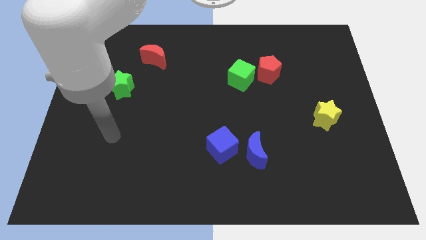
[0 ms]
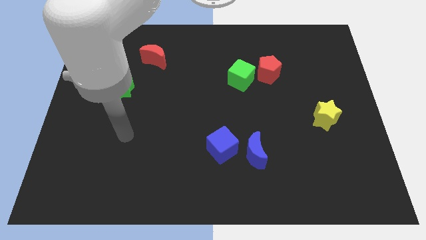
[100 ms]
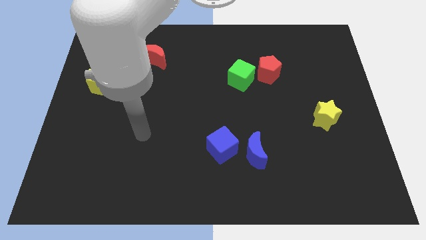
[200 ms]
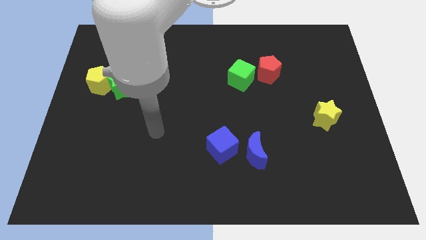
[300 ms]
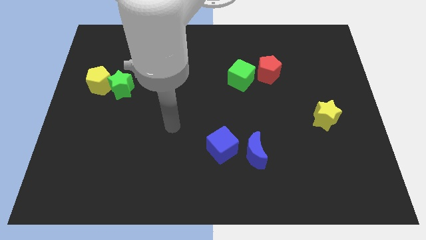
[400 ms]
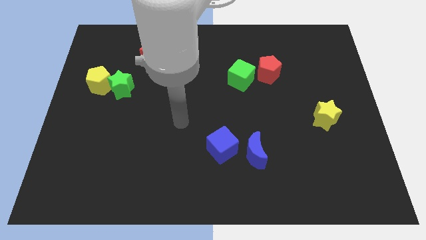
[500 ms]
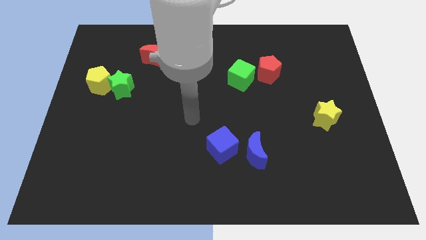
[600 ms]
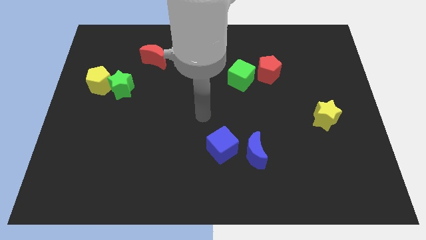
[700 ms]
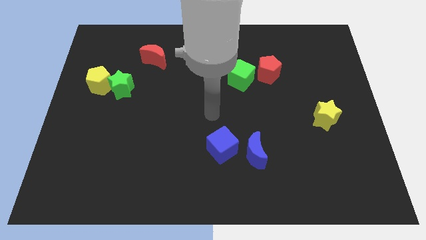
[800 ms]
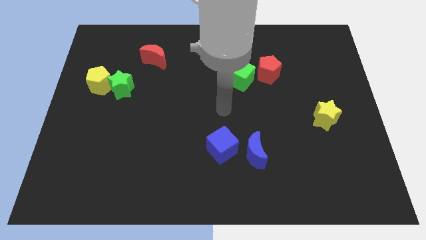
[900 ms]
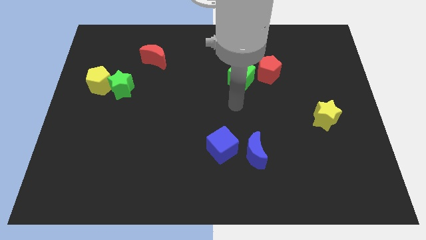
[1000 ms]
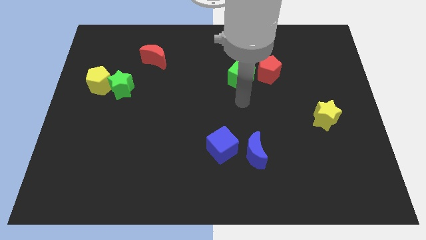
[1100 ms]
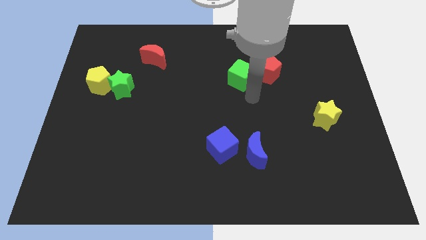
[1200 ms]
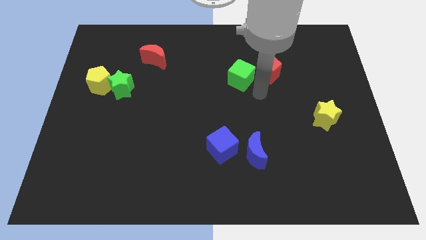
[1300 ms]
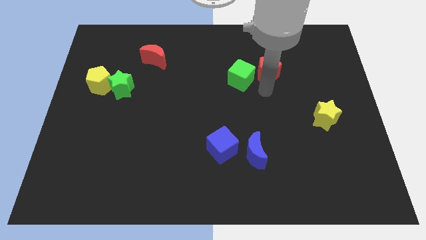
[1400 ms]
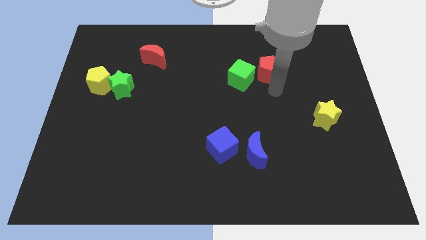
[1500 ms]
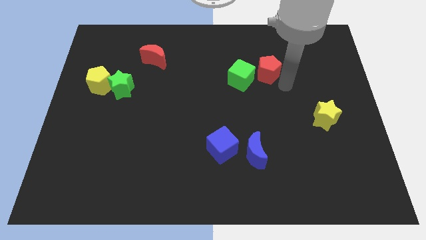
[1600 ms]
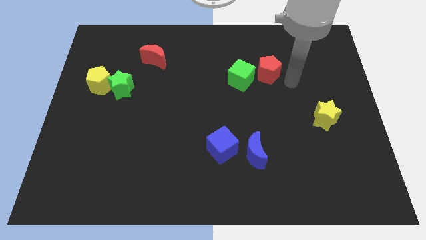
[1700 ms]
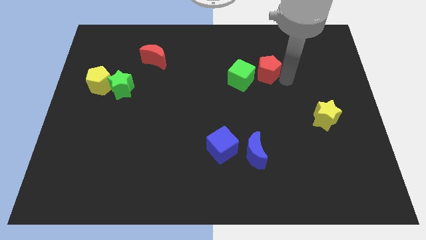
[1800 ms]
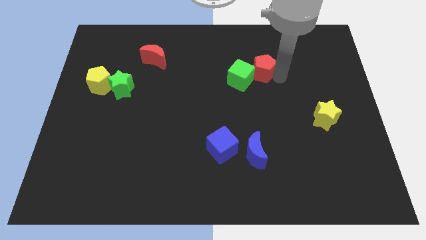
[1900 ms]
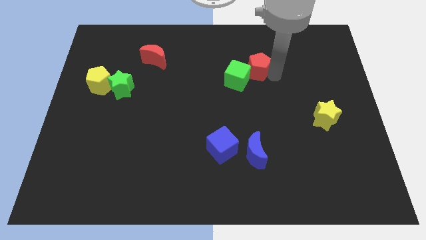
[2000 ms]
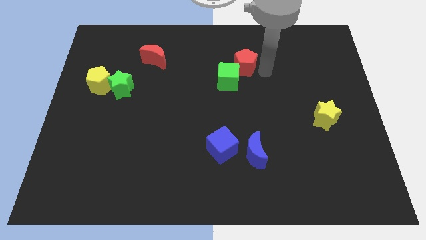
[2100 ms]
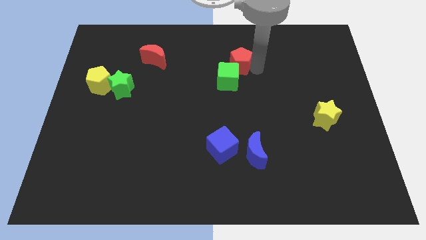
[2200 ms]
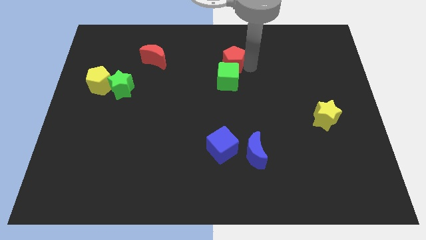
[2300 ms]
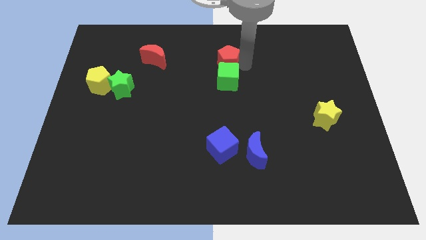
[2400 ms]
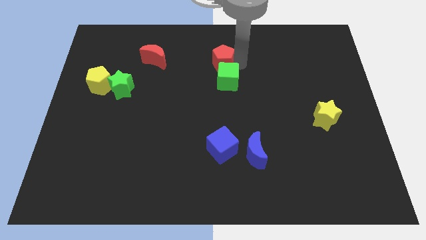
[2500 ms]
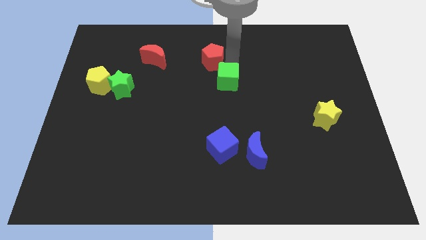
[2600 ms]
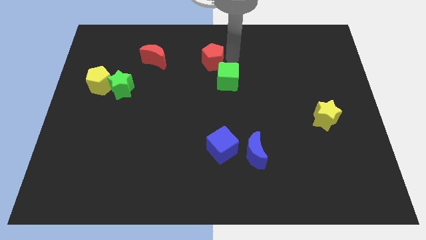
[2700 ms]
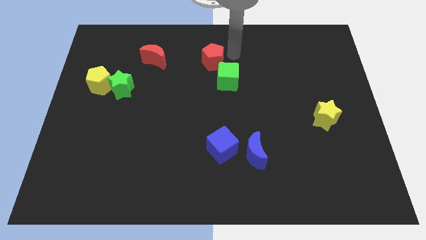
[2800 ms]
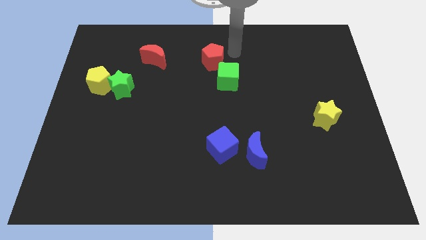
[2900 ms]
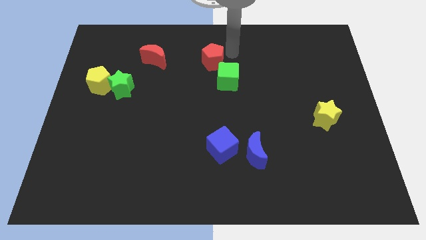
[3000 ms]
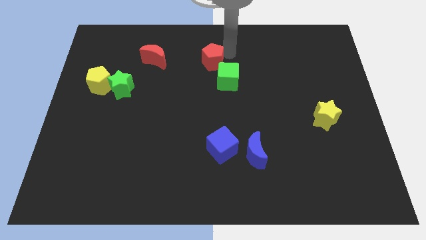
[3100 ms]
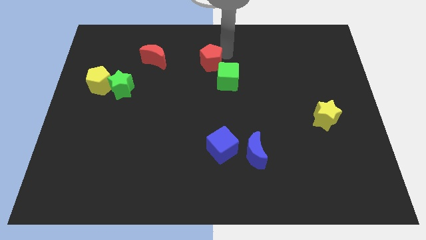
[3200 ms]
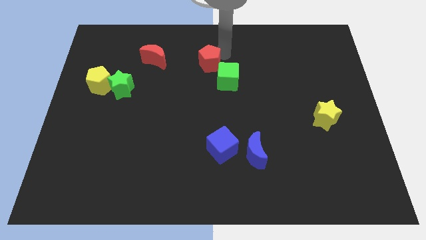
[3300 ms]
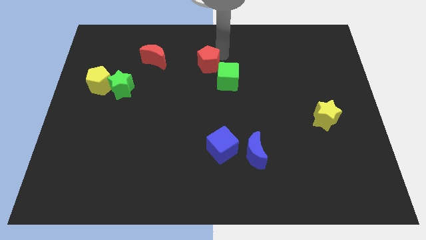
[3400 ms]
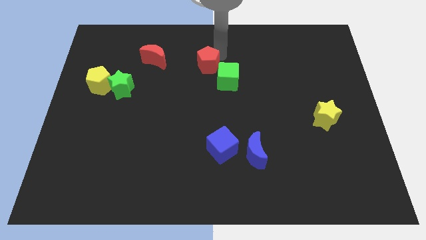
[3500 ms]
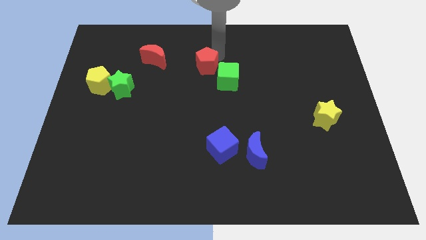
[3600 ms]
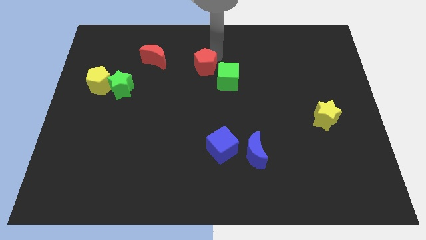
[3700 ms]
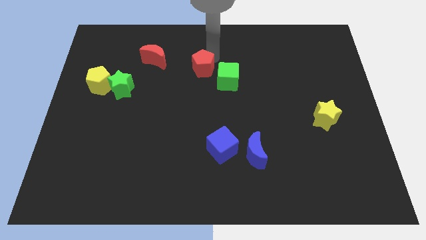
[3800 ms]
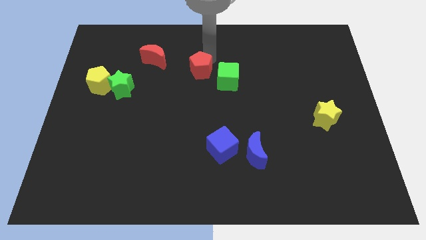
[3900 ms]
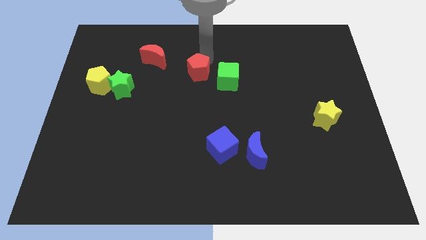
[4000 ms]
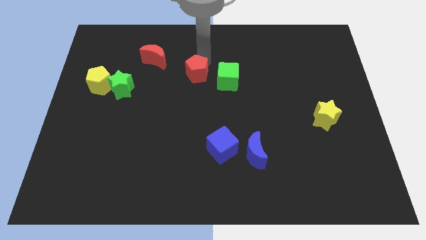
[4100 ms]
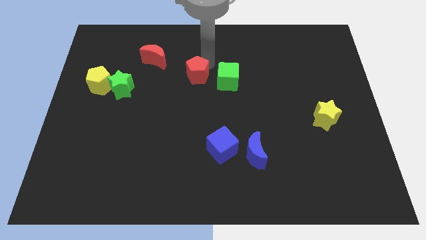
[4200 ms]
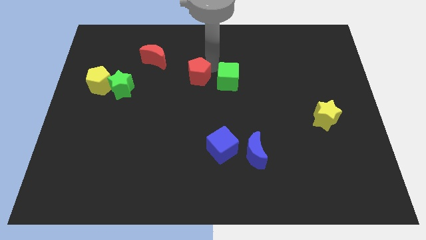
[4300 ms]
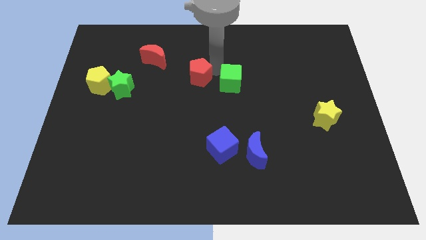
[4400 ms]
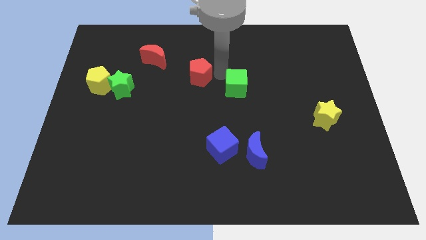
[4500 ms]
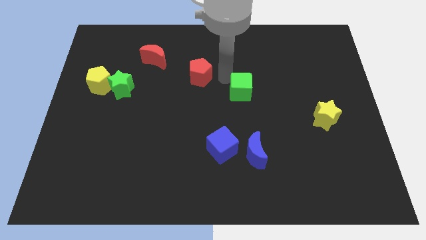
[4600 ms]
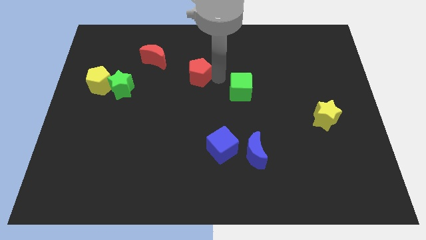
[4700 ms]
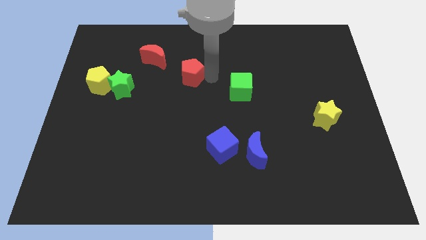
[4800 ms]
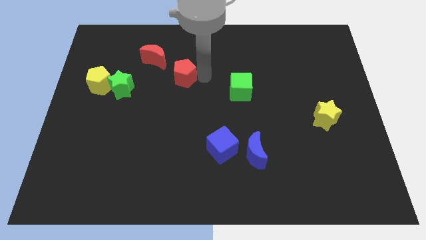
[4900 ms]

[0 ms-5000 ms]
move the red pentagon left

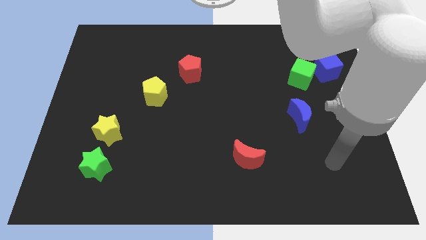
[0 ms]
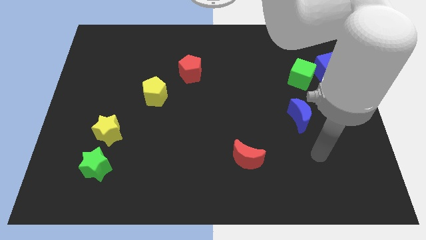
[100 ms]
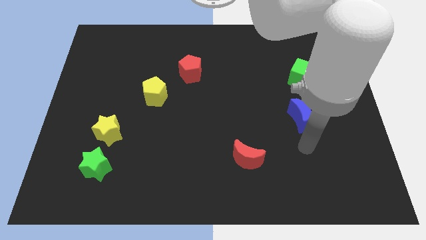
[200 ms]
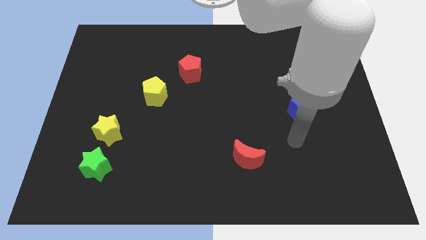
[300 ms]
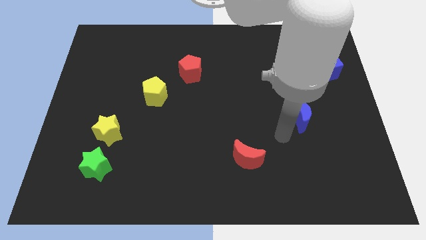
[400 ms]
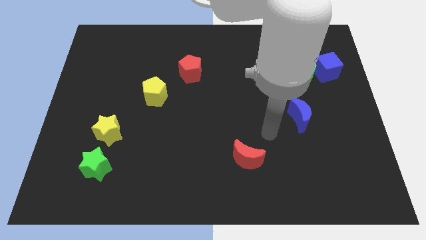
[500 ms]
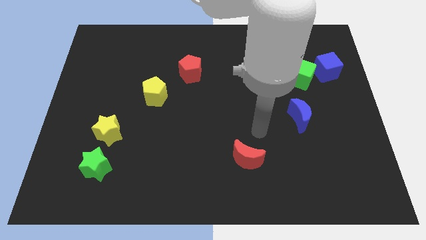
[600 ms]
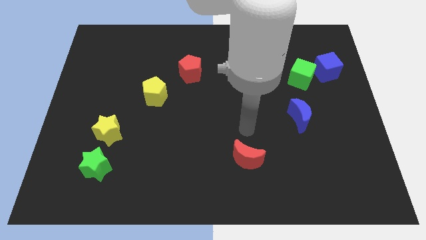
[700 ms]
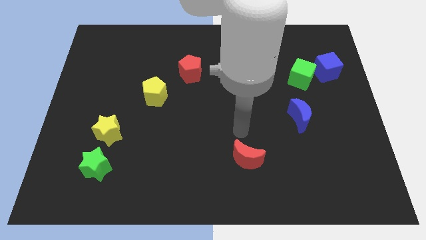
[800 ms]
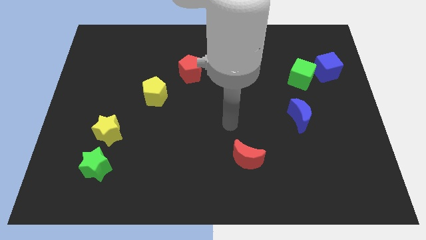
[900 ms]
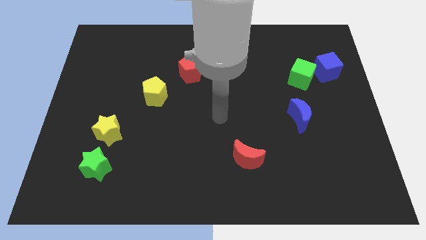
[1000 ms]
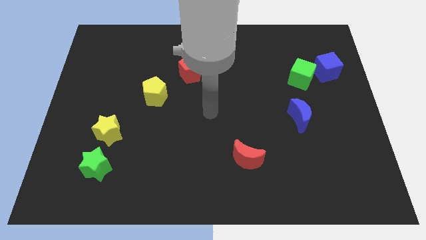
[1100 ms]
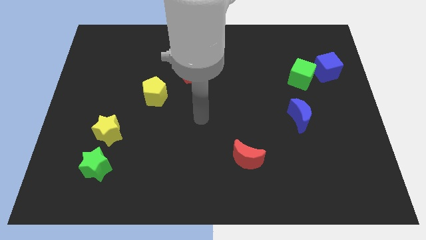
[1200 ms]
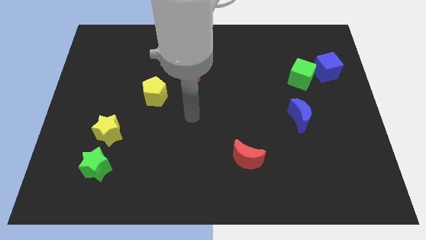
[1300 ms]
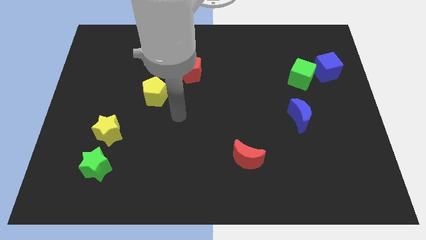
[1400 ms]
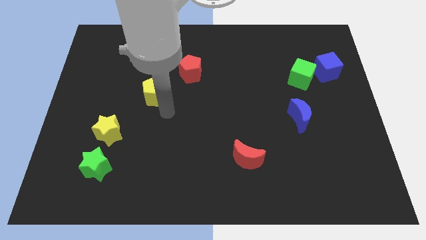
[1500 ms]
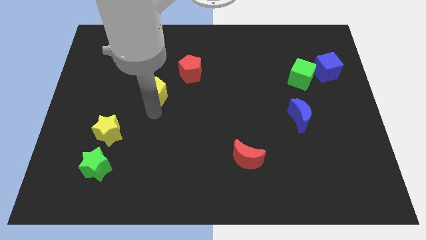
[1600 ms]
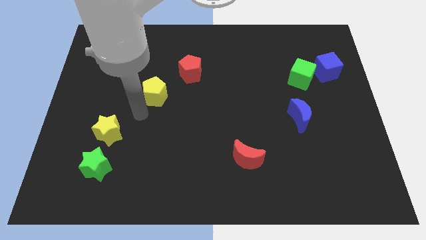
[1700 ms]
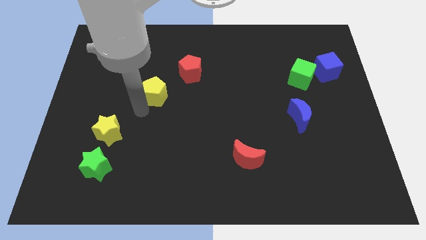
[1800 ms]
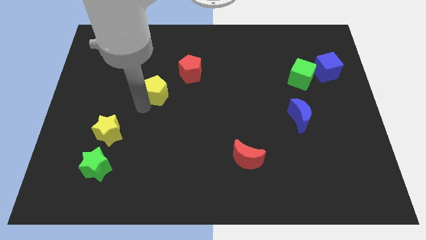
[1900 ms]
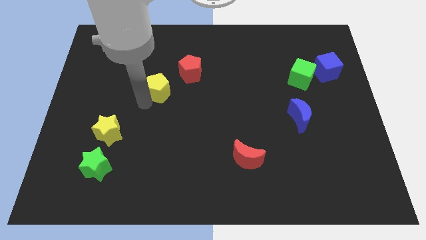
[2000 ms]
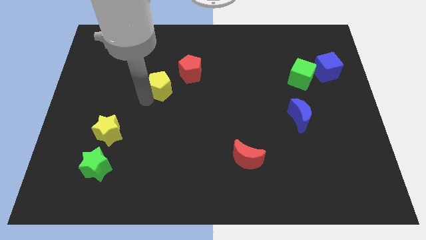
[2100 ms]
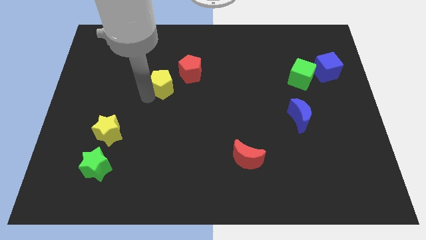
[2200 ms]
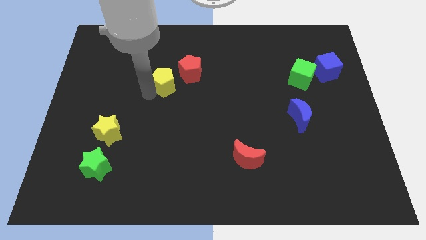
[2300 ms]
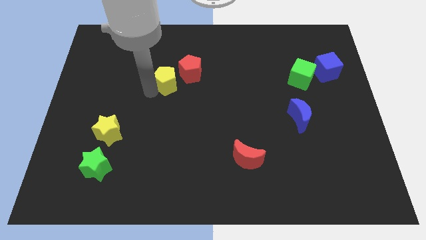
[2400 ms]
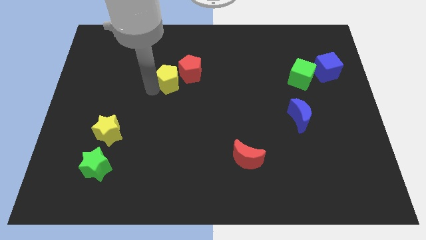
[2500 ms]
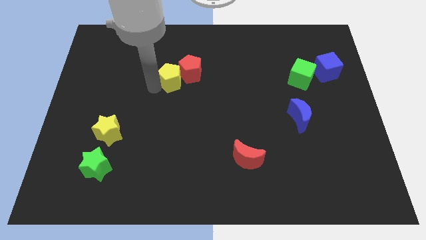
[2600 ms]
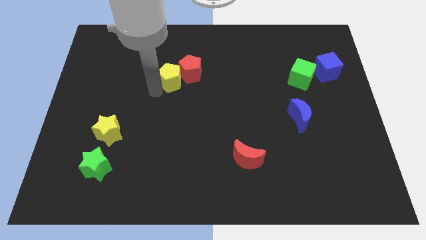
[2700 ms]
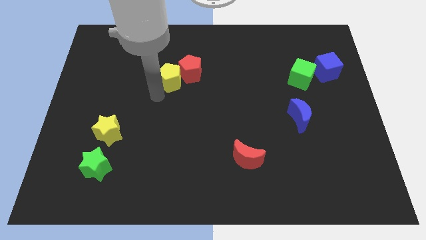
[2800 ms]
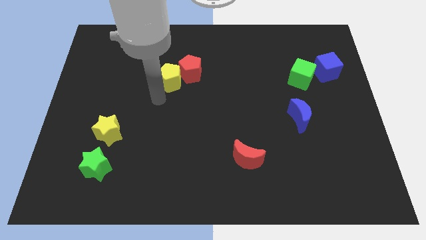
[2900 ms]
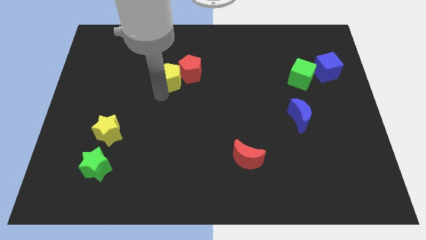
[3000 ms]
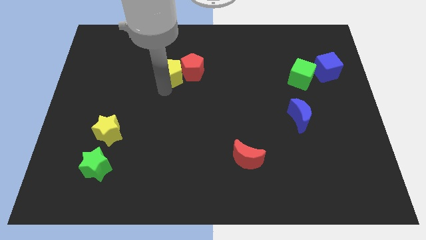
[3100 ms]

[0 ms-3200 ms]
slightly move the yellow pentagon upwards and to the right diagonally
